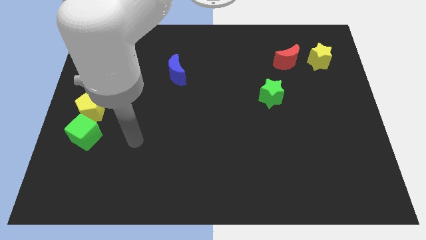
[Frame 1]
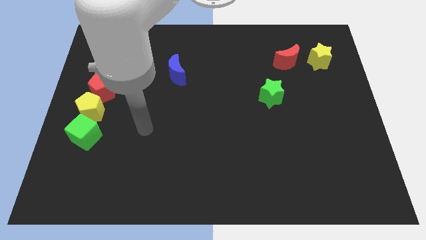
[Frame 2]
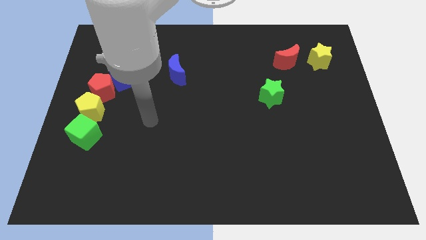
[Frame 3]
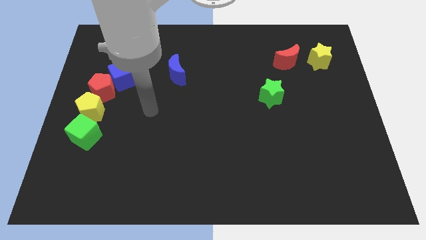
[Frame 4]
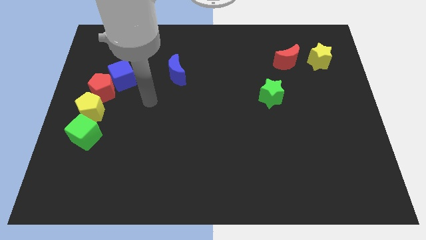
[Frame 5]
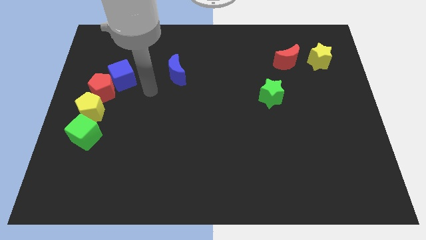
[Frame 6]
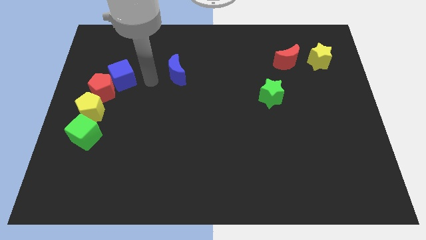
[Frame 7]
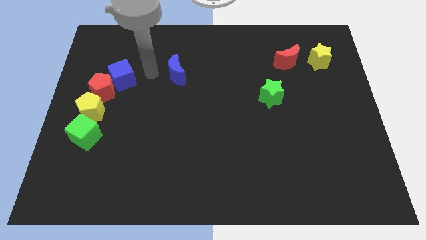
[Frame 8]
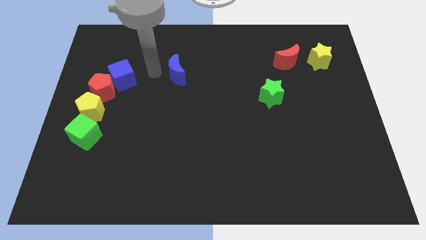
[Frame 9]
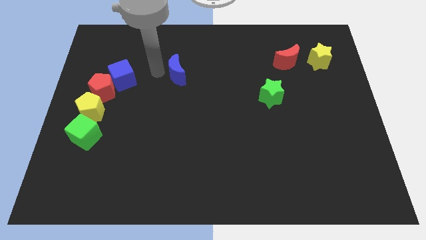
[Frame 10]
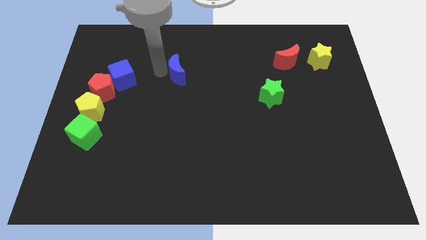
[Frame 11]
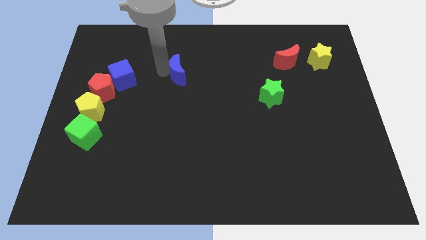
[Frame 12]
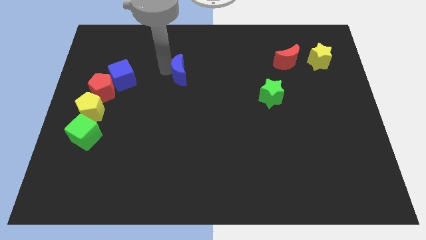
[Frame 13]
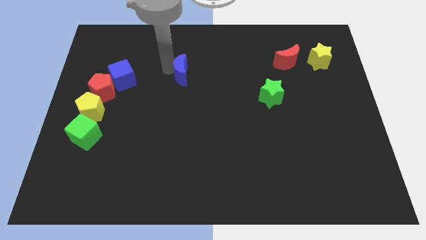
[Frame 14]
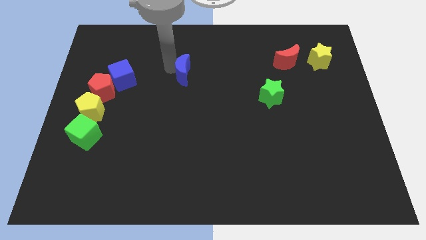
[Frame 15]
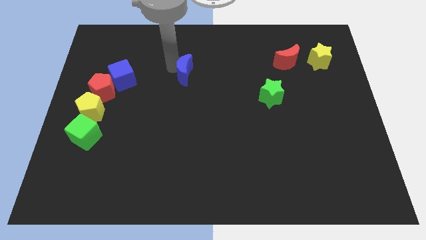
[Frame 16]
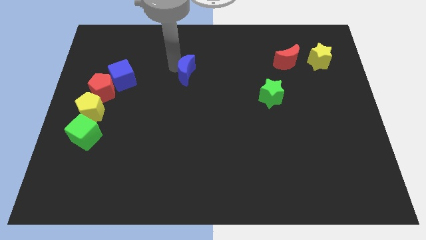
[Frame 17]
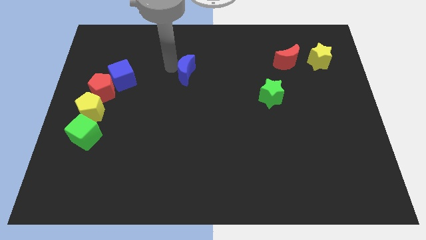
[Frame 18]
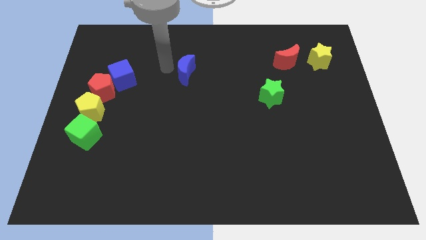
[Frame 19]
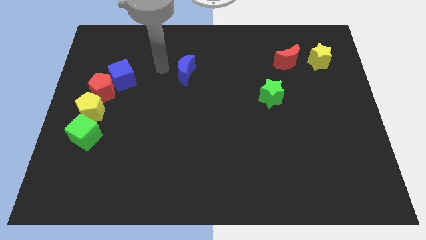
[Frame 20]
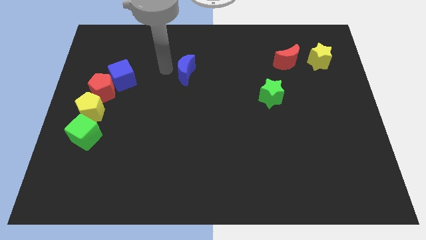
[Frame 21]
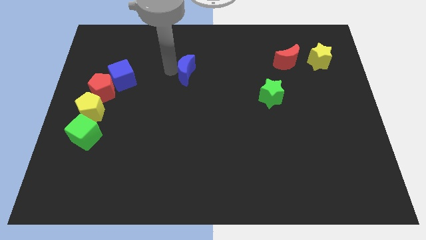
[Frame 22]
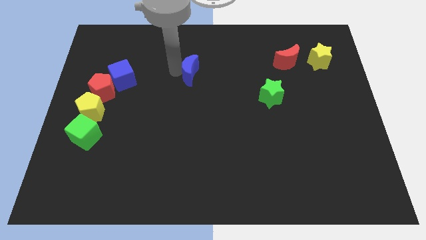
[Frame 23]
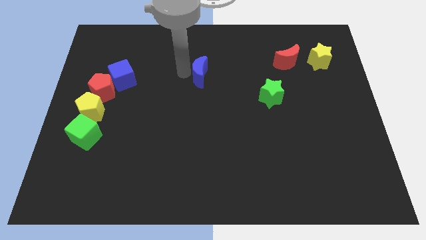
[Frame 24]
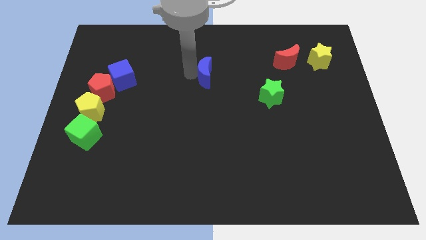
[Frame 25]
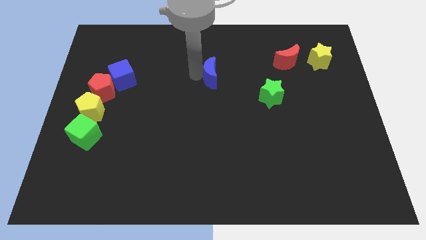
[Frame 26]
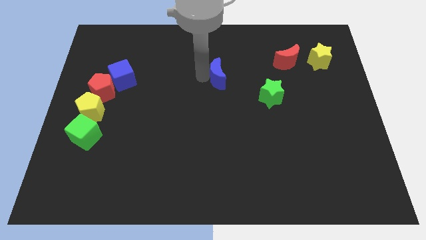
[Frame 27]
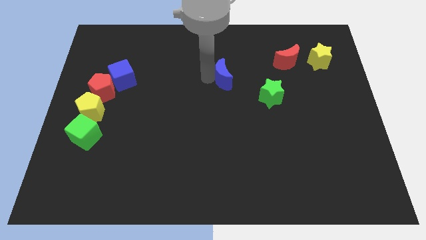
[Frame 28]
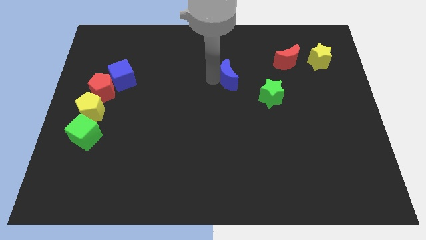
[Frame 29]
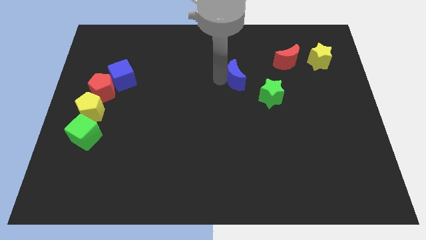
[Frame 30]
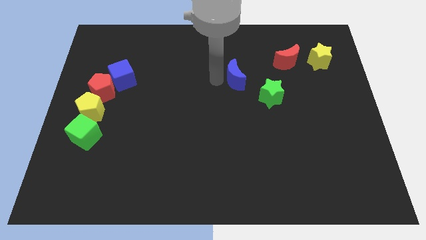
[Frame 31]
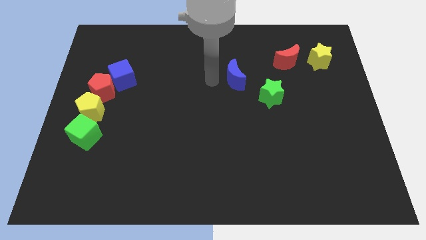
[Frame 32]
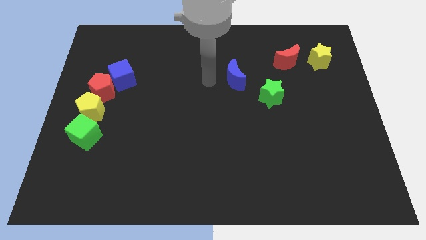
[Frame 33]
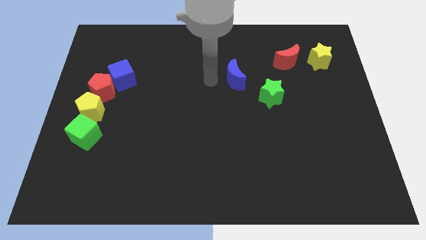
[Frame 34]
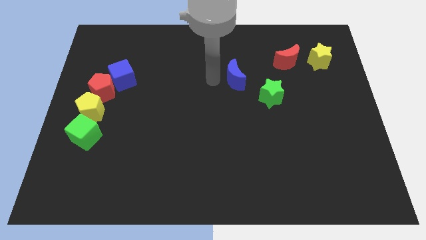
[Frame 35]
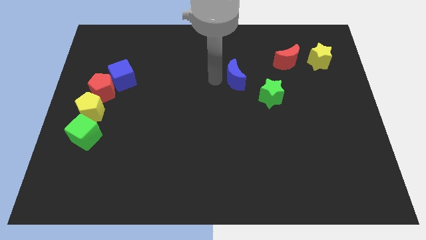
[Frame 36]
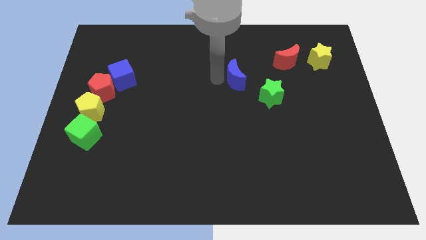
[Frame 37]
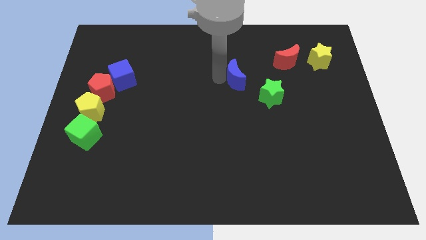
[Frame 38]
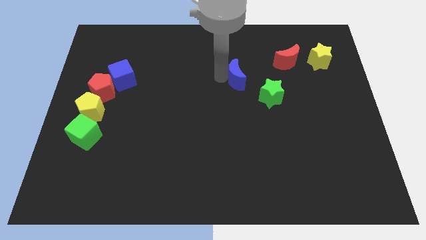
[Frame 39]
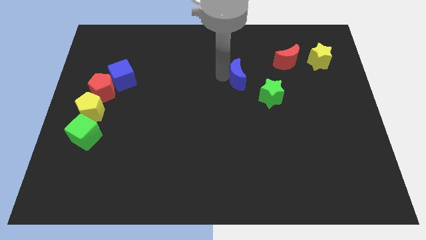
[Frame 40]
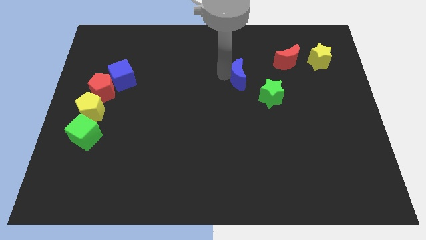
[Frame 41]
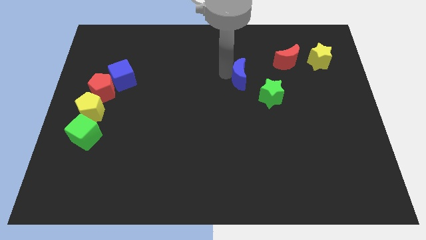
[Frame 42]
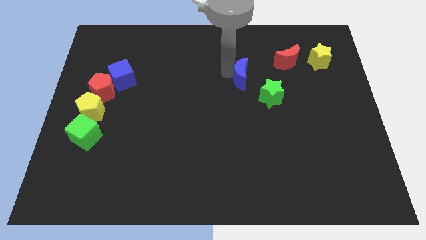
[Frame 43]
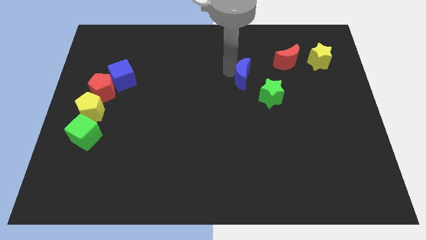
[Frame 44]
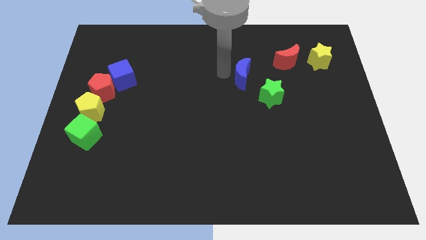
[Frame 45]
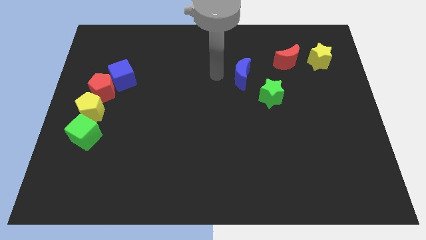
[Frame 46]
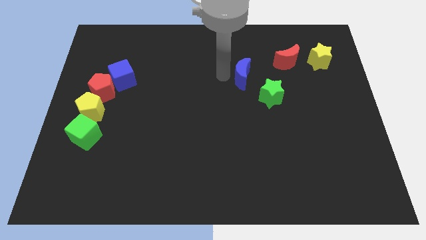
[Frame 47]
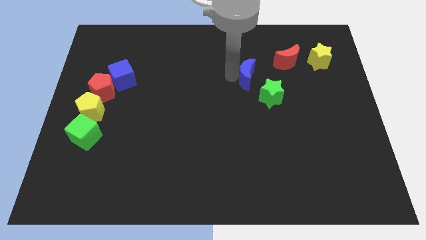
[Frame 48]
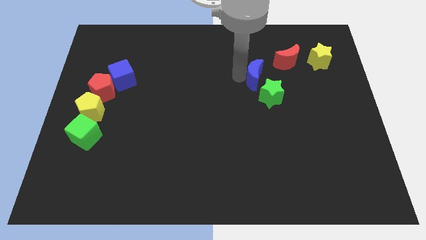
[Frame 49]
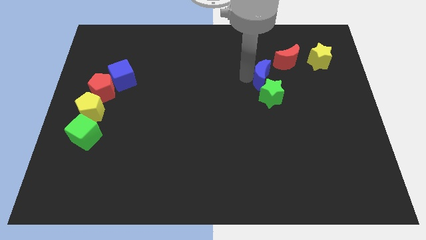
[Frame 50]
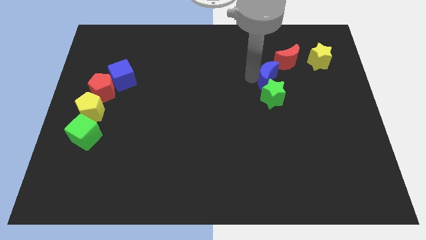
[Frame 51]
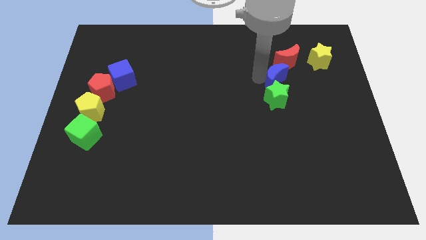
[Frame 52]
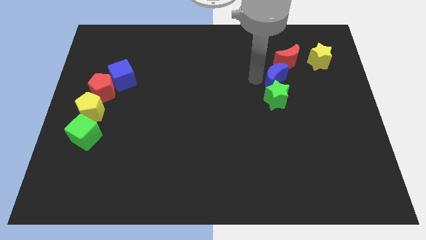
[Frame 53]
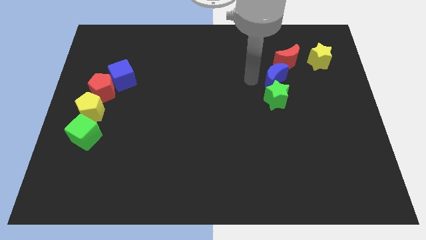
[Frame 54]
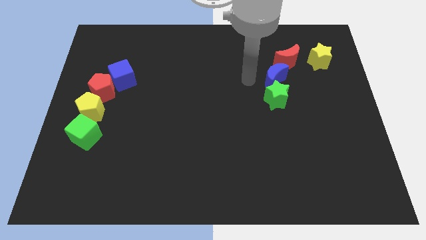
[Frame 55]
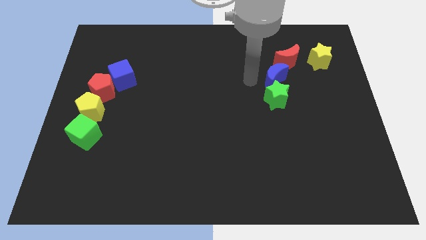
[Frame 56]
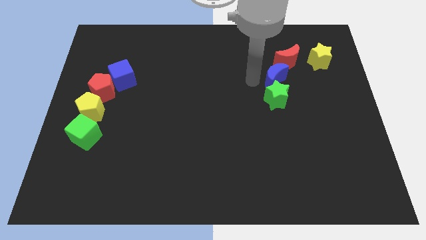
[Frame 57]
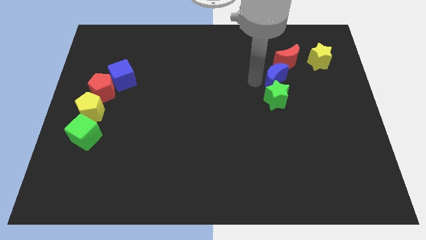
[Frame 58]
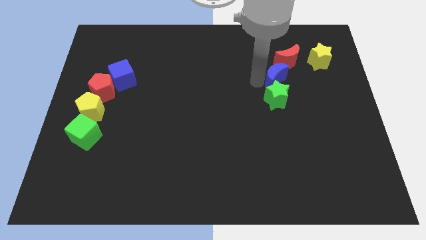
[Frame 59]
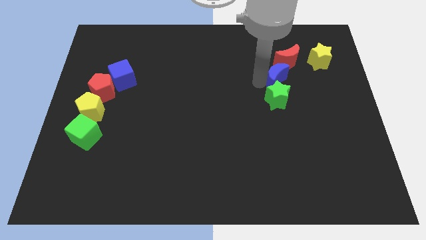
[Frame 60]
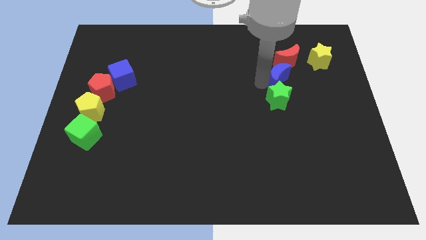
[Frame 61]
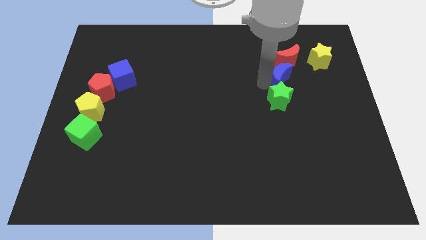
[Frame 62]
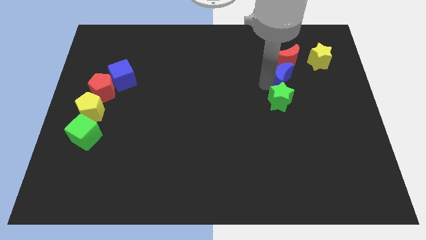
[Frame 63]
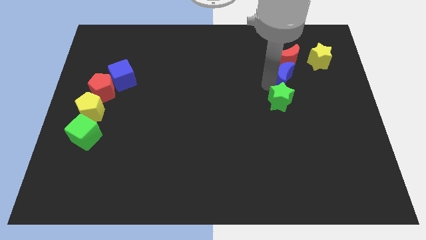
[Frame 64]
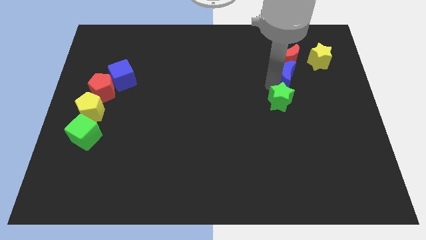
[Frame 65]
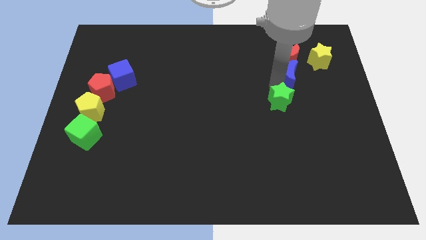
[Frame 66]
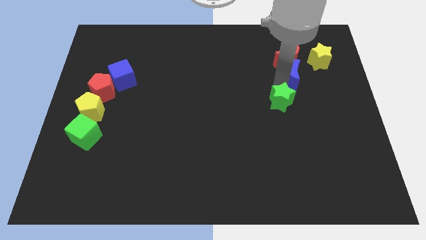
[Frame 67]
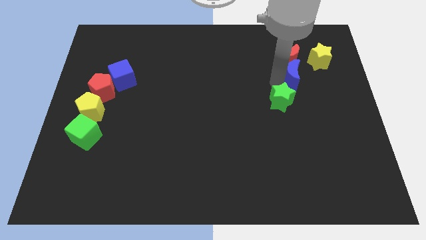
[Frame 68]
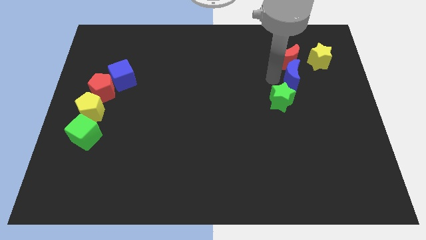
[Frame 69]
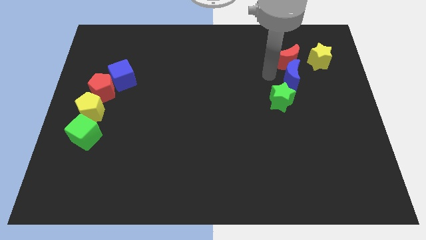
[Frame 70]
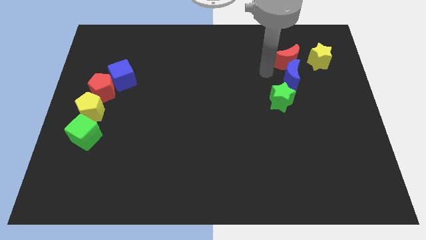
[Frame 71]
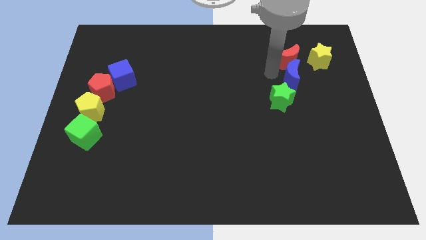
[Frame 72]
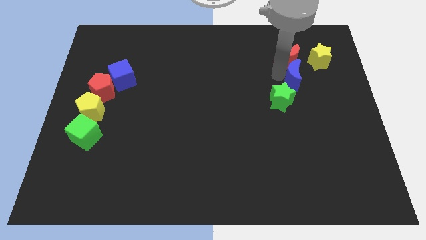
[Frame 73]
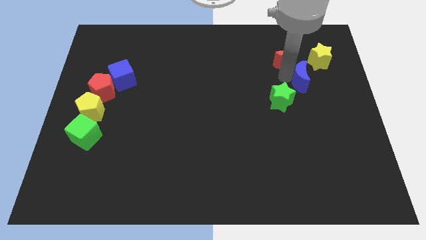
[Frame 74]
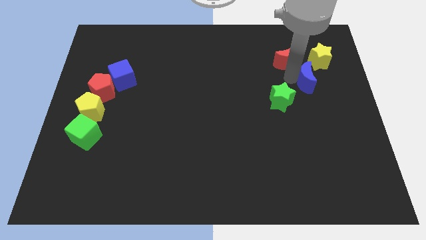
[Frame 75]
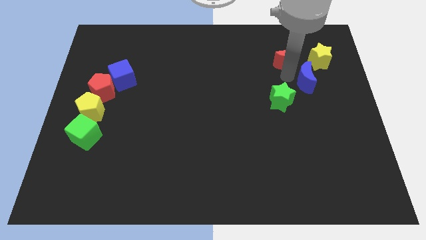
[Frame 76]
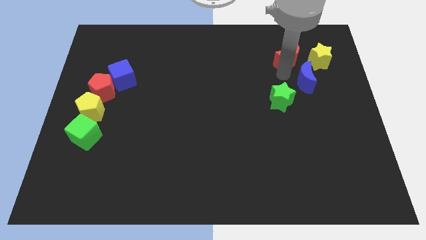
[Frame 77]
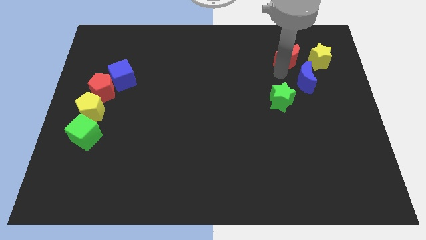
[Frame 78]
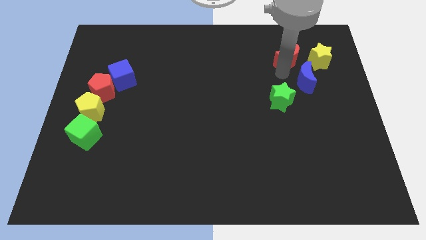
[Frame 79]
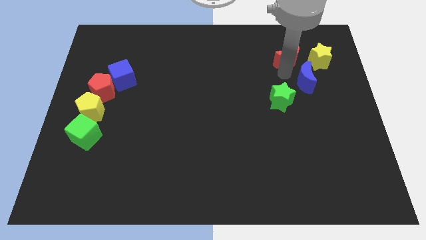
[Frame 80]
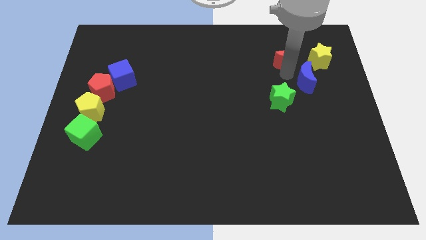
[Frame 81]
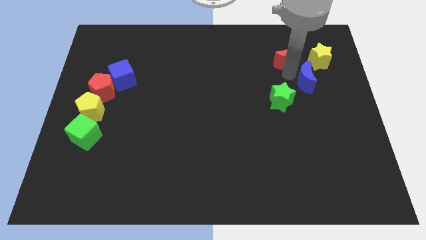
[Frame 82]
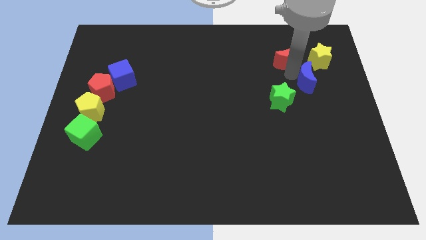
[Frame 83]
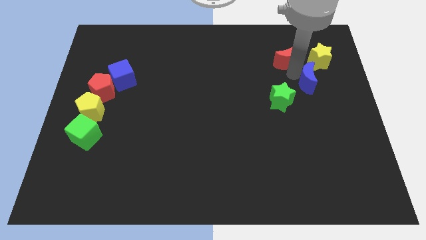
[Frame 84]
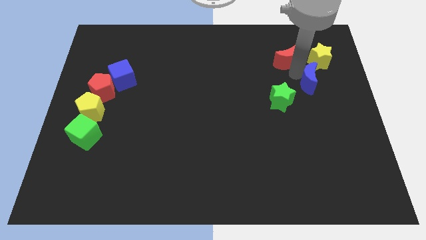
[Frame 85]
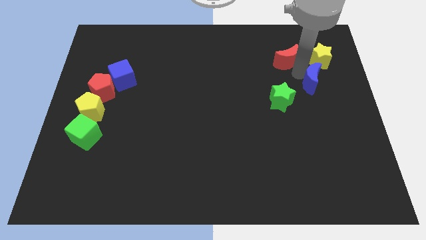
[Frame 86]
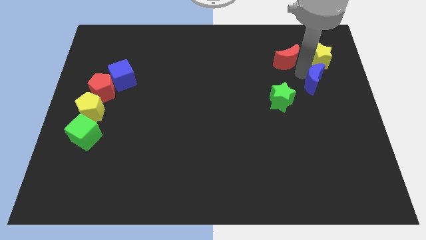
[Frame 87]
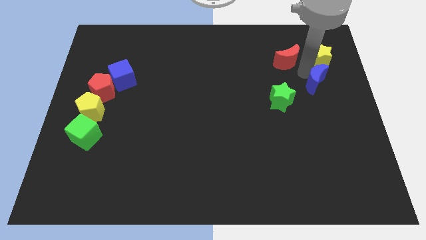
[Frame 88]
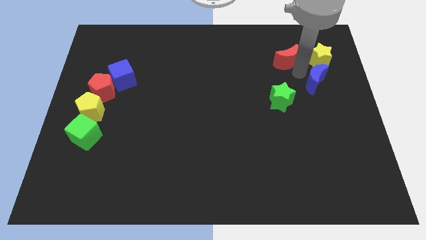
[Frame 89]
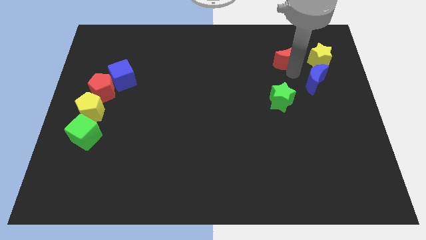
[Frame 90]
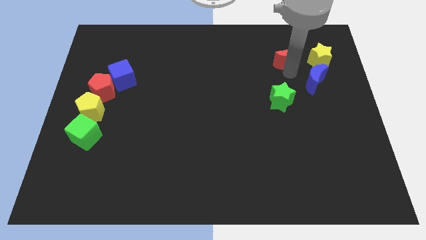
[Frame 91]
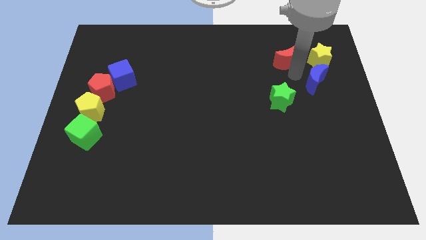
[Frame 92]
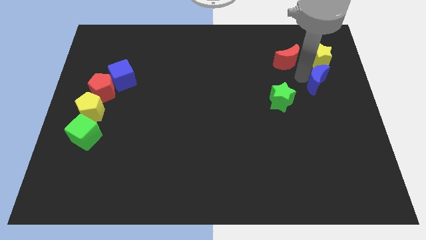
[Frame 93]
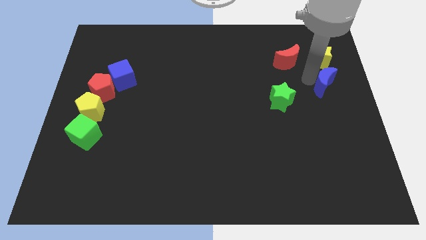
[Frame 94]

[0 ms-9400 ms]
move the blue moon to the right side
